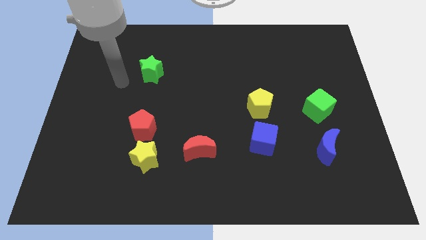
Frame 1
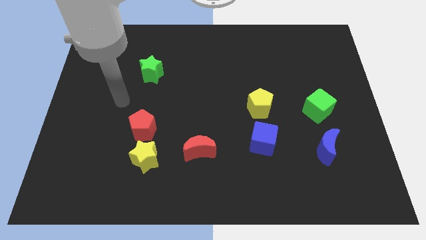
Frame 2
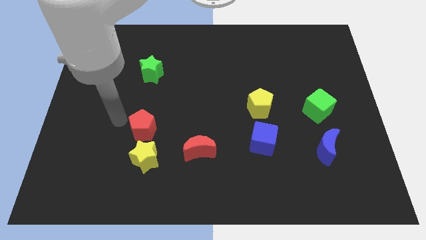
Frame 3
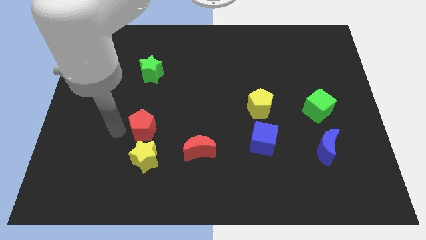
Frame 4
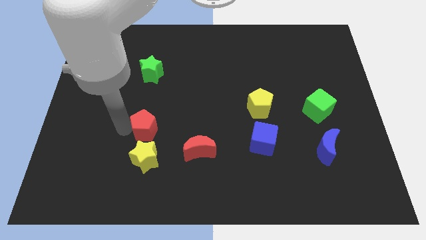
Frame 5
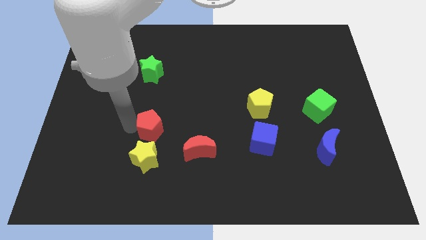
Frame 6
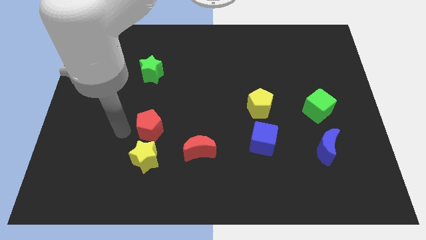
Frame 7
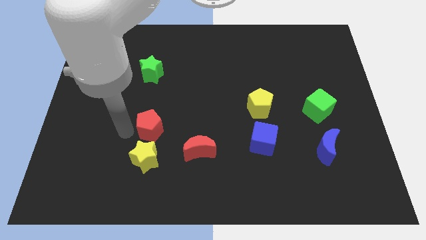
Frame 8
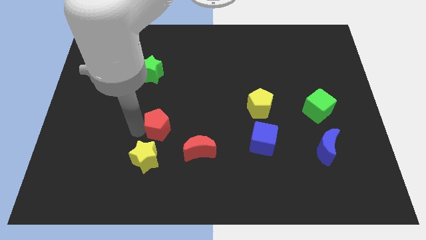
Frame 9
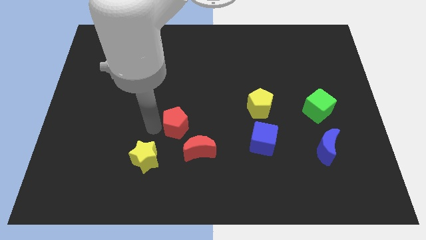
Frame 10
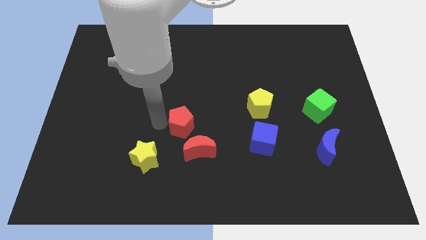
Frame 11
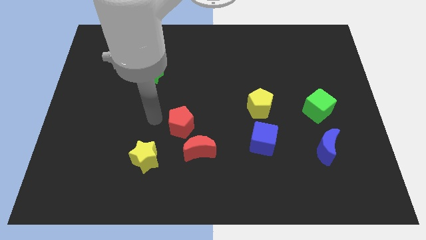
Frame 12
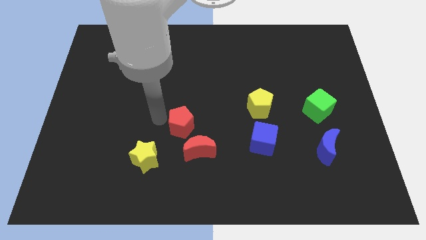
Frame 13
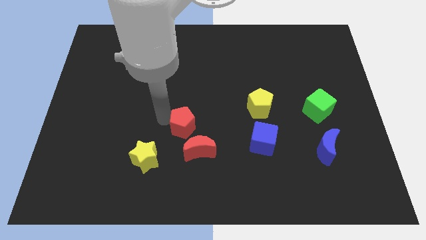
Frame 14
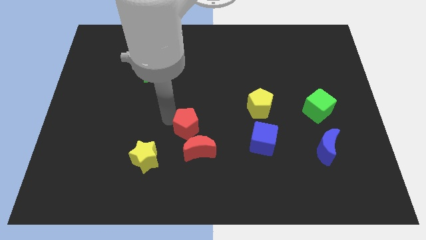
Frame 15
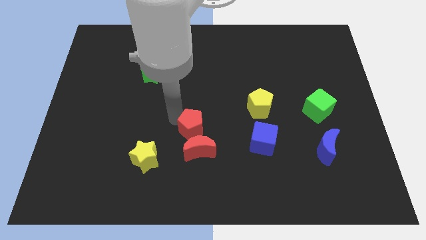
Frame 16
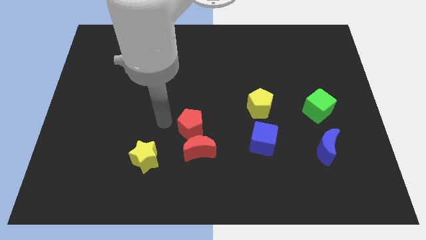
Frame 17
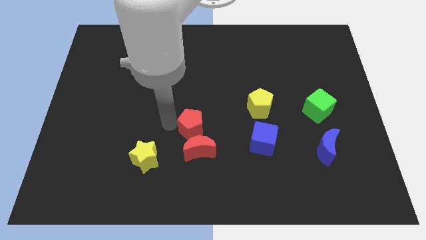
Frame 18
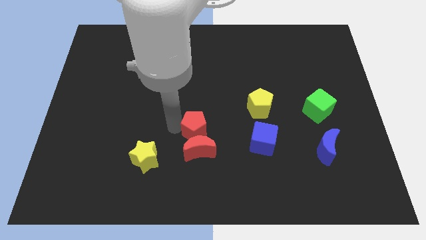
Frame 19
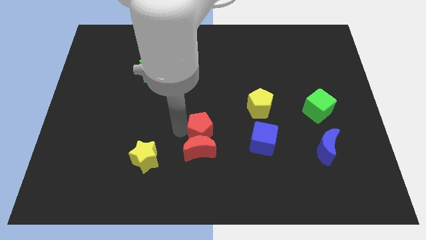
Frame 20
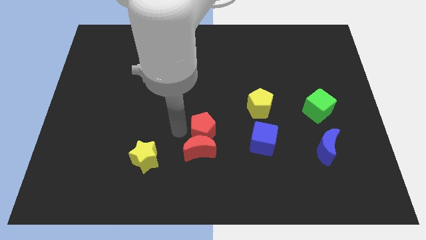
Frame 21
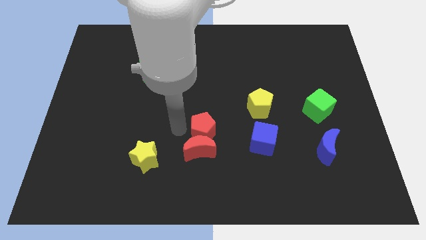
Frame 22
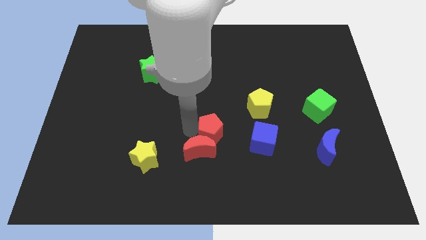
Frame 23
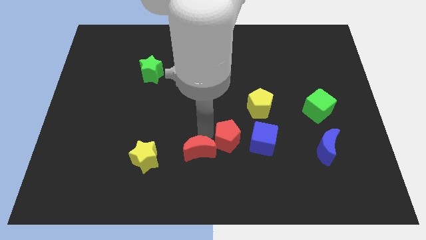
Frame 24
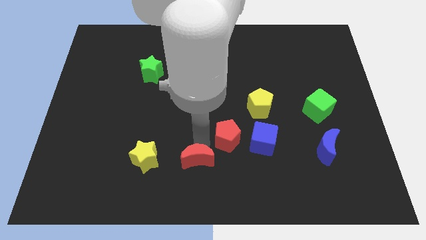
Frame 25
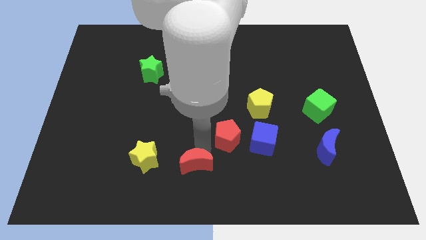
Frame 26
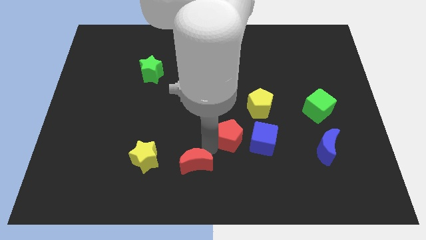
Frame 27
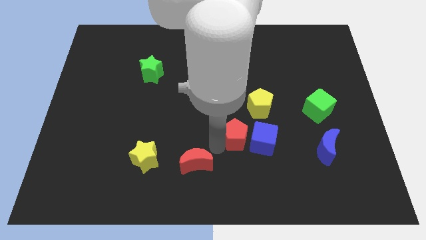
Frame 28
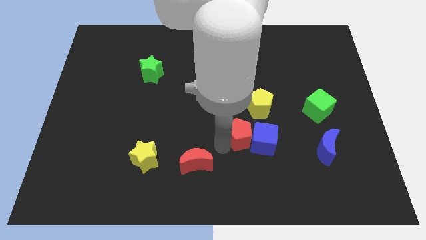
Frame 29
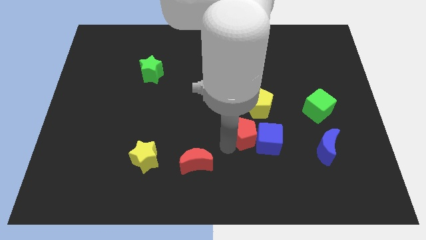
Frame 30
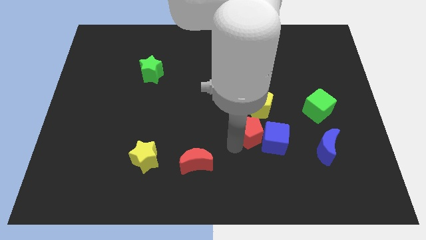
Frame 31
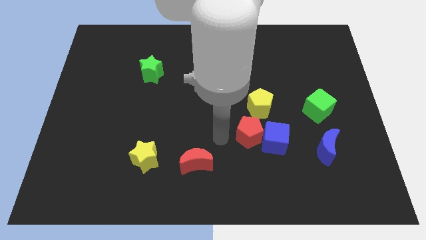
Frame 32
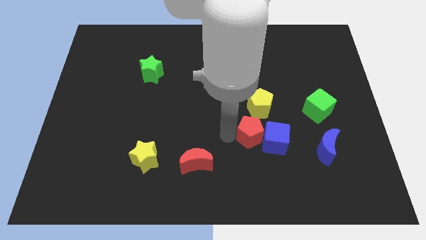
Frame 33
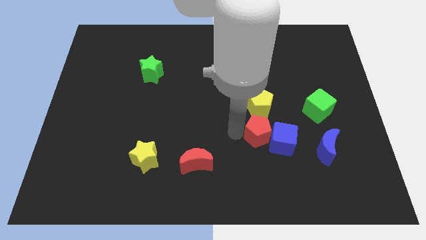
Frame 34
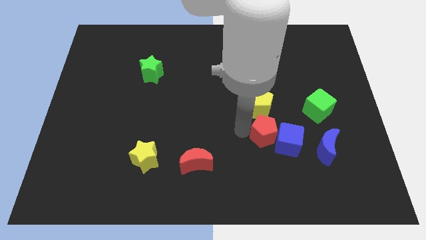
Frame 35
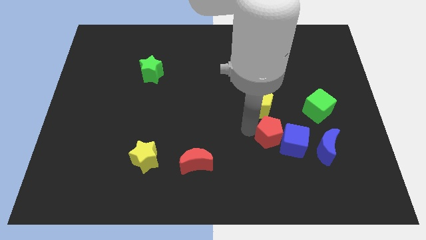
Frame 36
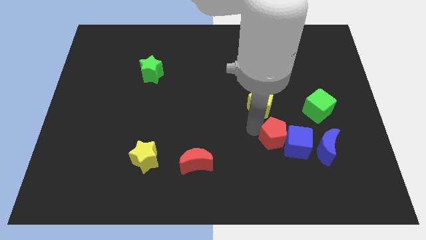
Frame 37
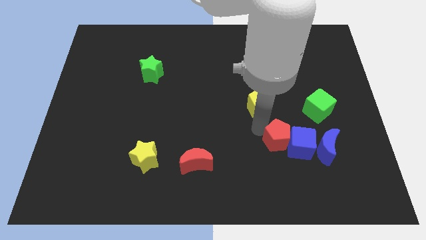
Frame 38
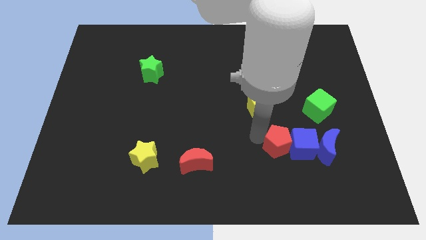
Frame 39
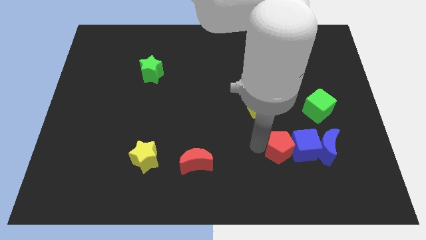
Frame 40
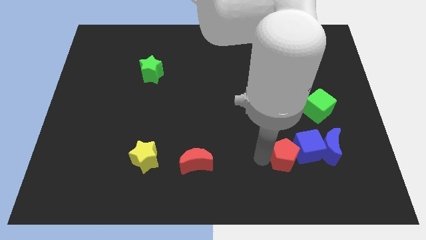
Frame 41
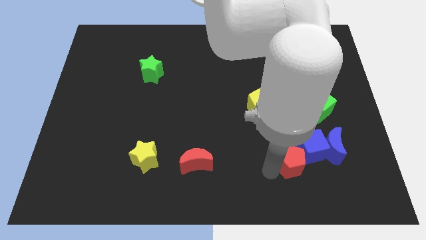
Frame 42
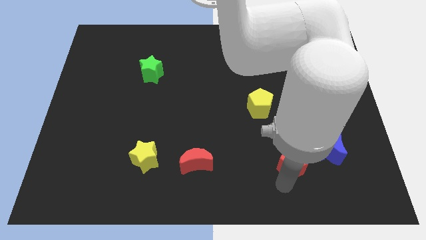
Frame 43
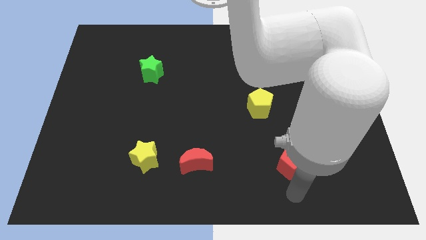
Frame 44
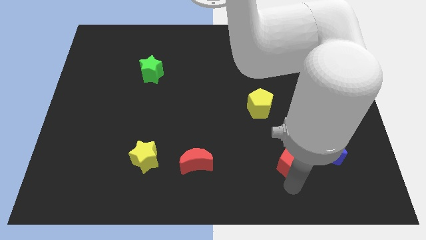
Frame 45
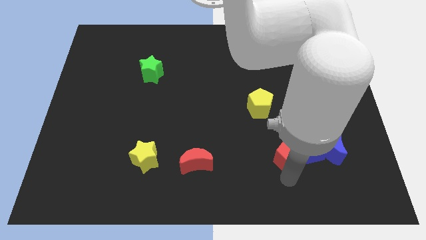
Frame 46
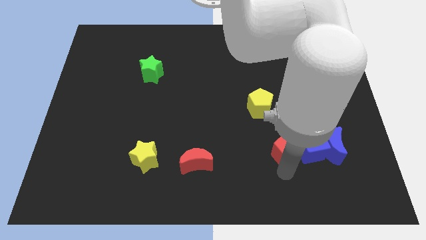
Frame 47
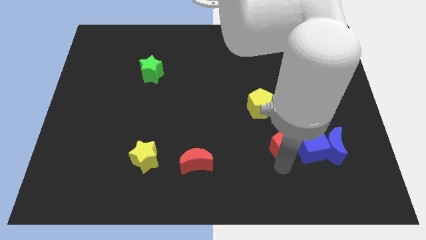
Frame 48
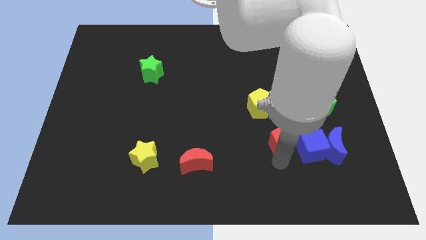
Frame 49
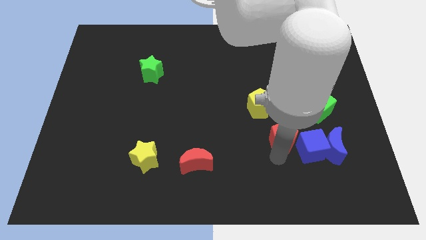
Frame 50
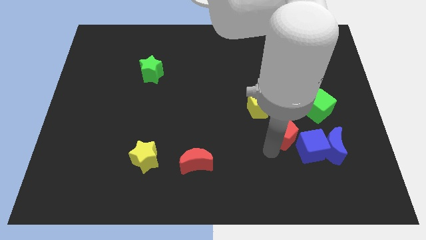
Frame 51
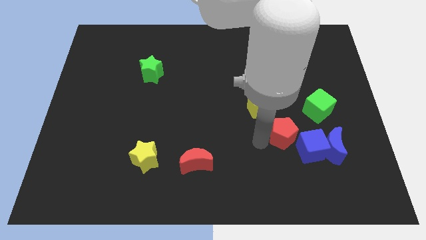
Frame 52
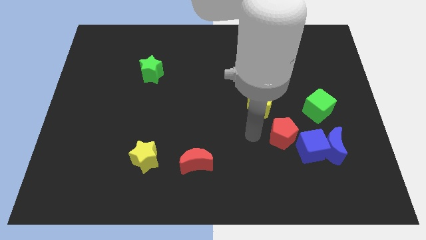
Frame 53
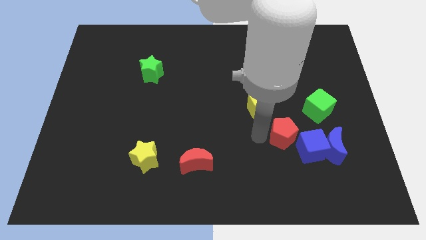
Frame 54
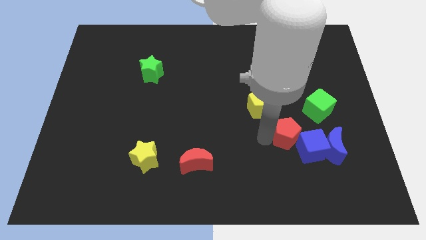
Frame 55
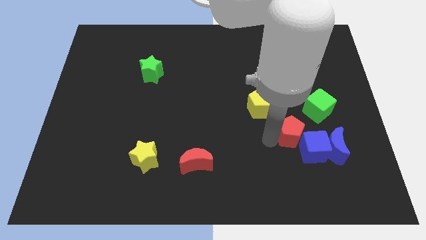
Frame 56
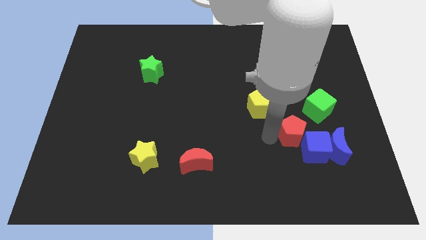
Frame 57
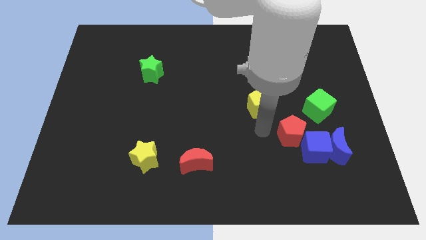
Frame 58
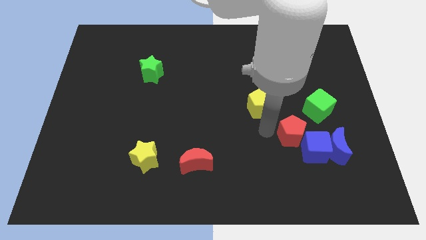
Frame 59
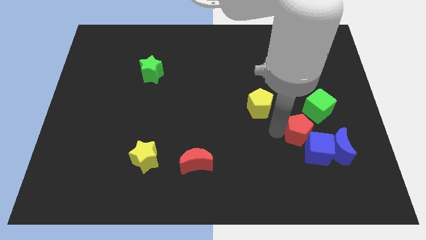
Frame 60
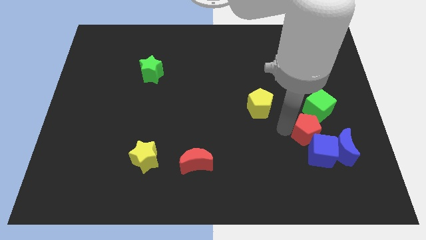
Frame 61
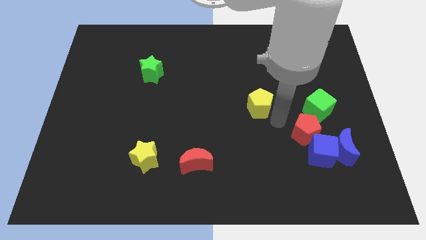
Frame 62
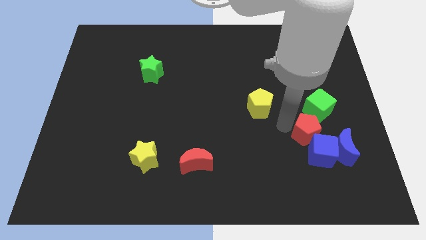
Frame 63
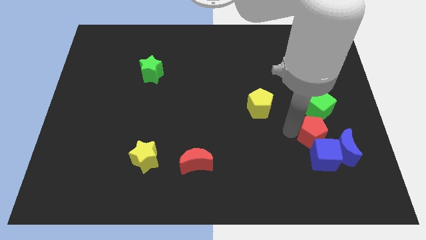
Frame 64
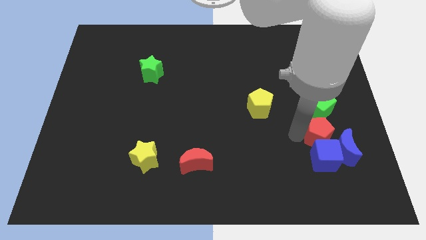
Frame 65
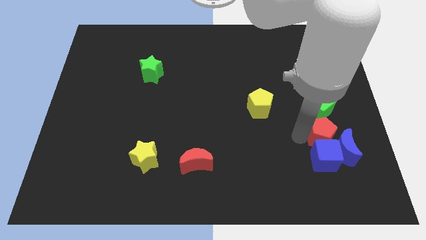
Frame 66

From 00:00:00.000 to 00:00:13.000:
put the red pentagon to the blue moon
